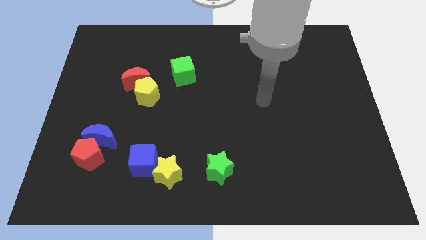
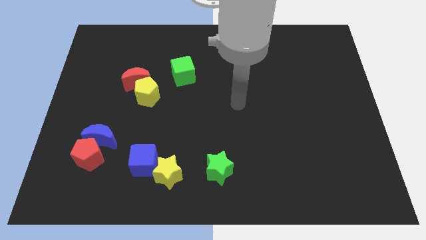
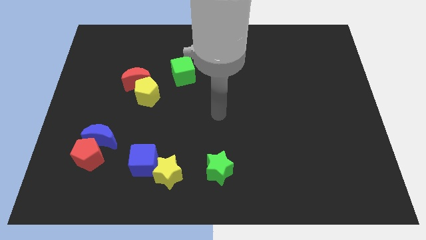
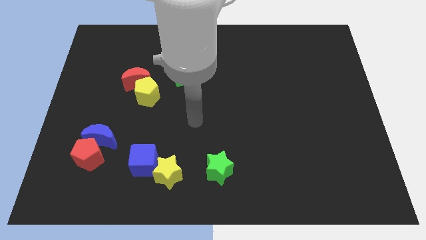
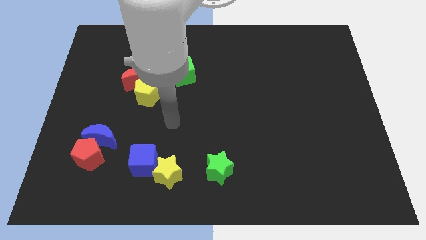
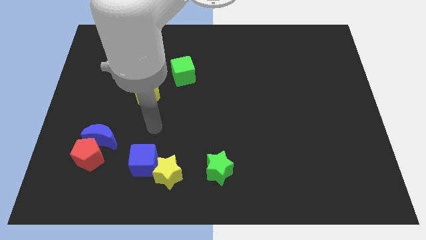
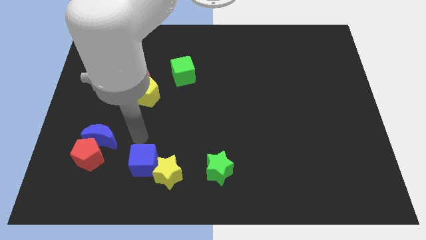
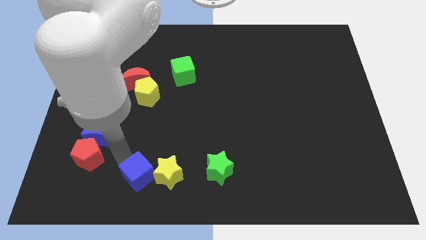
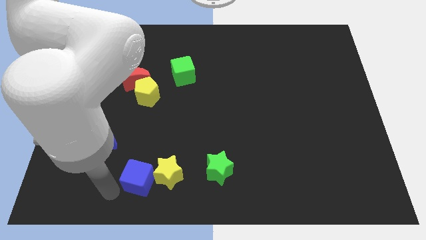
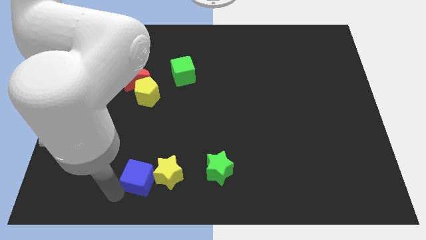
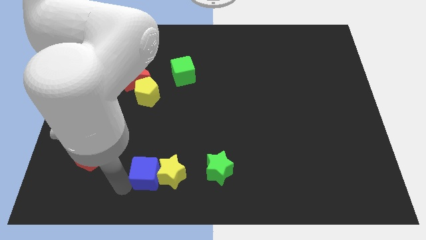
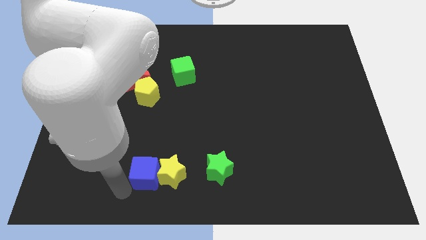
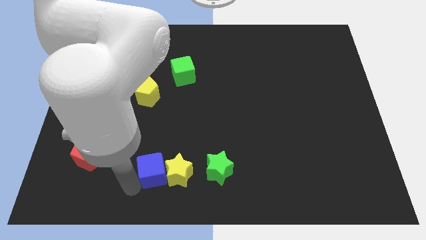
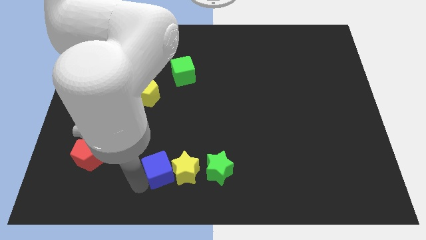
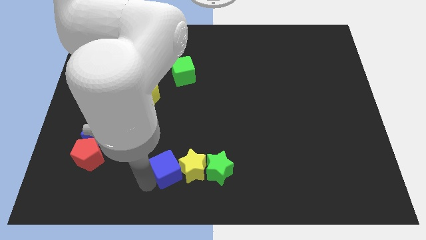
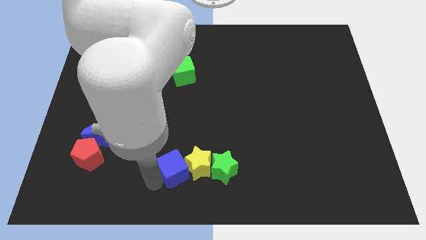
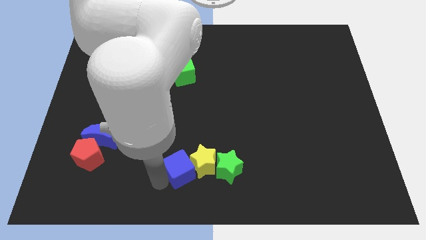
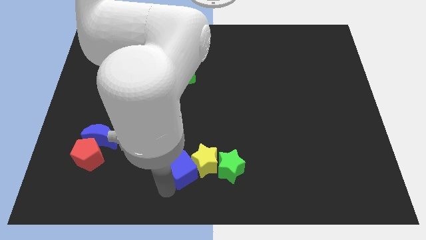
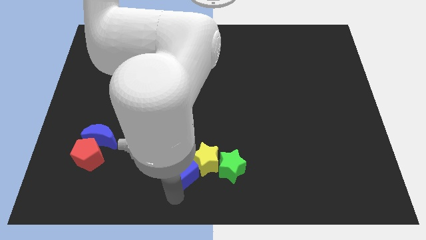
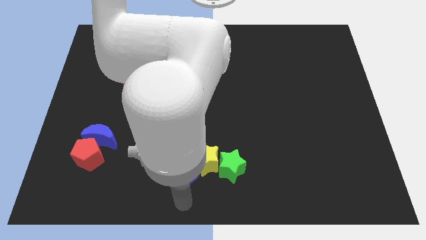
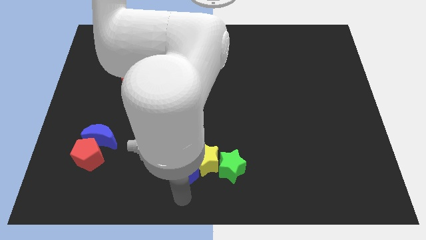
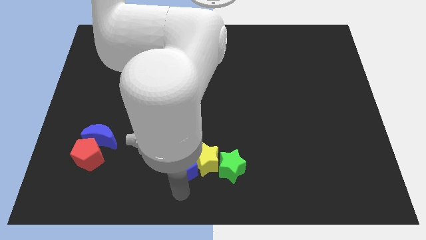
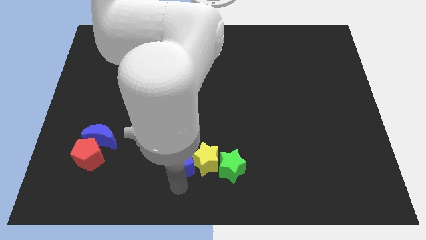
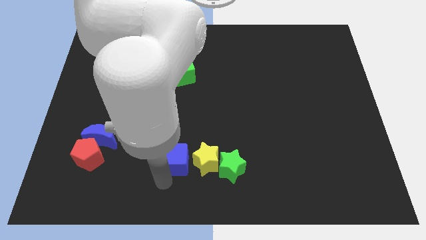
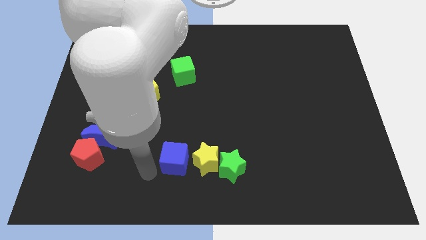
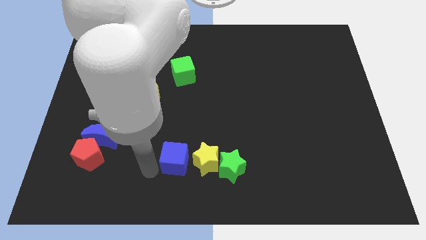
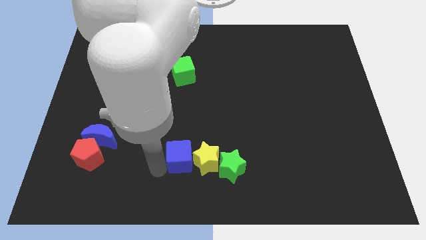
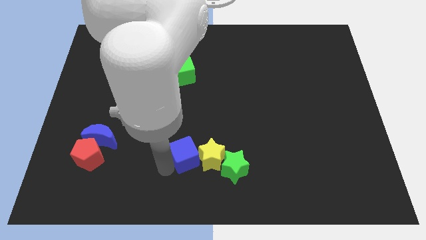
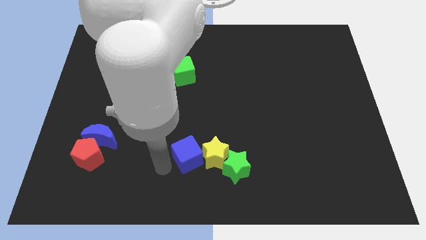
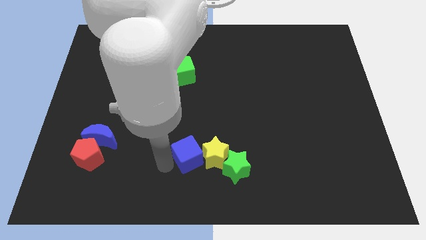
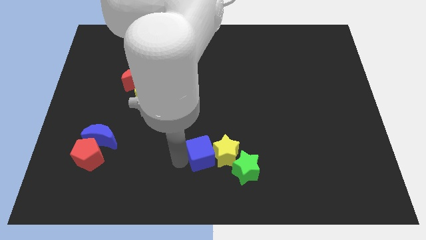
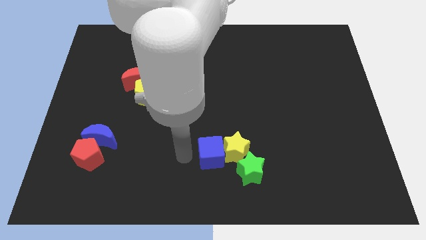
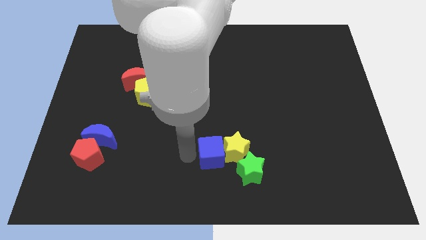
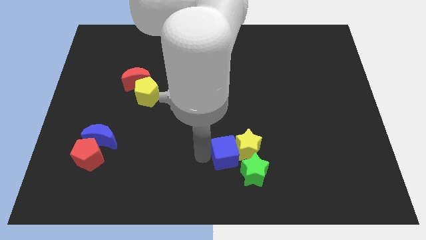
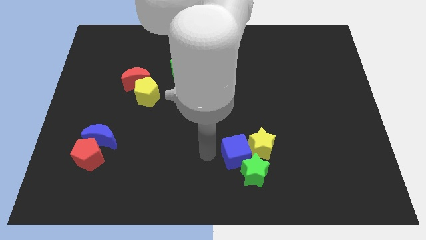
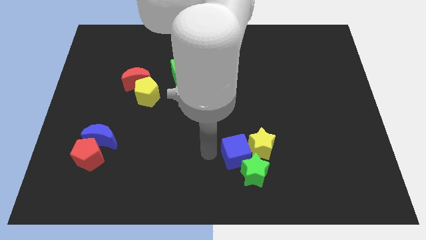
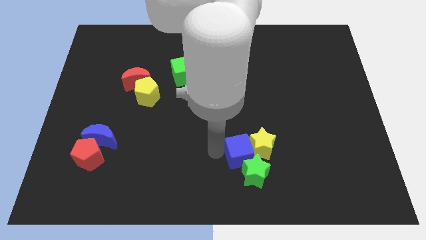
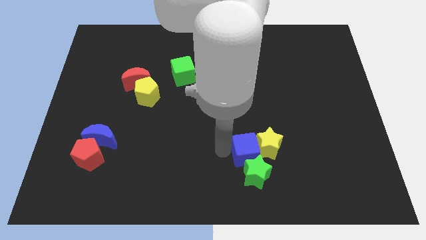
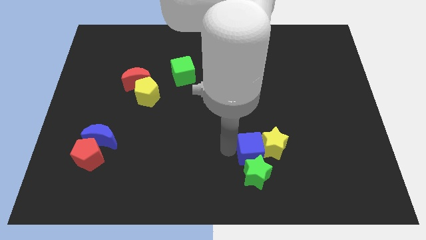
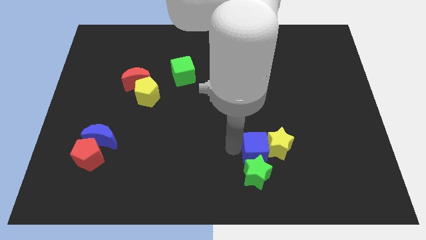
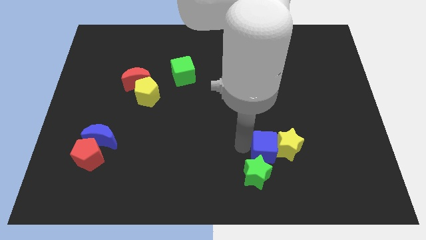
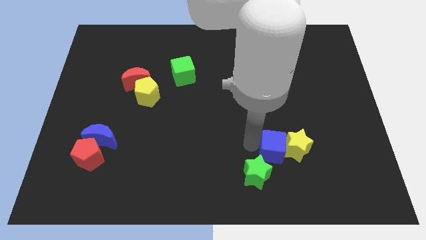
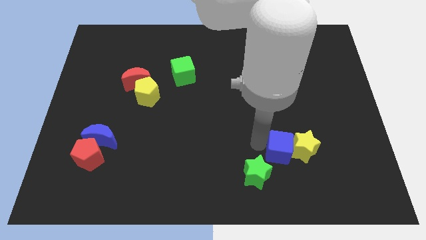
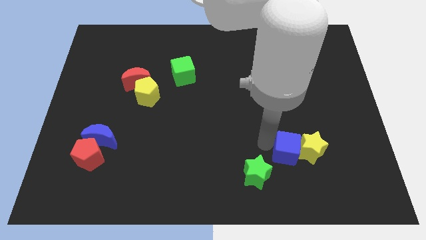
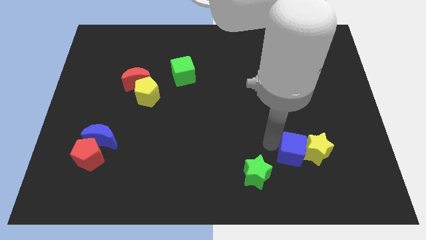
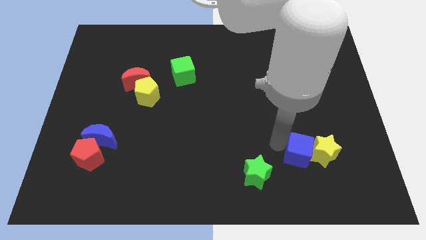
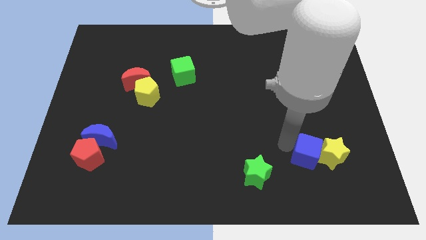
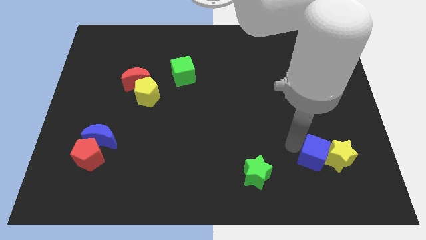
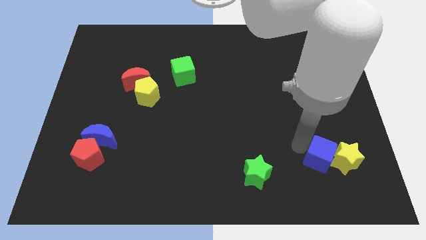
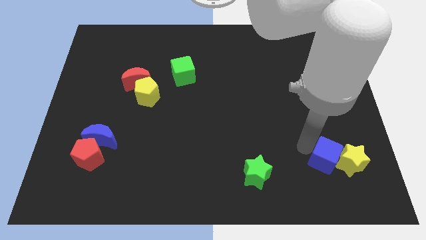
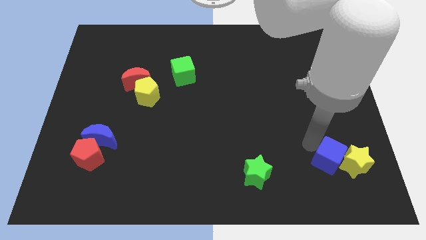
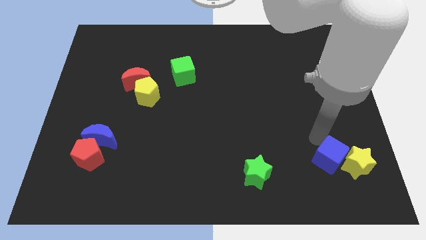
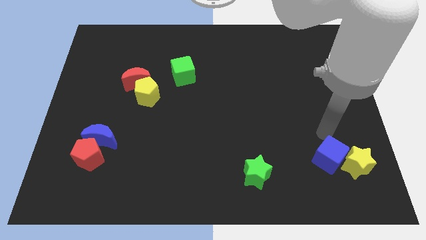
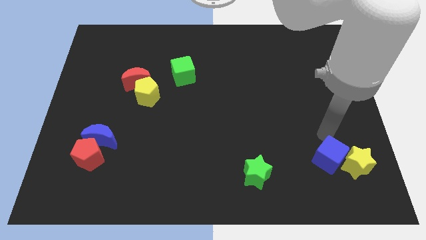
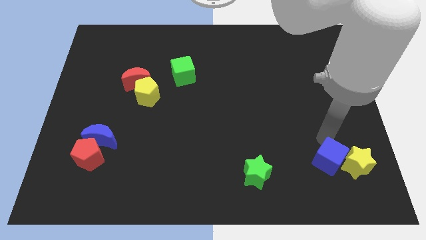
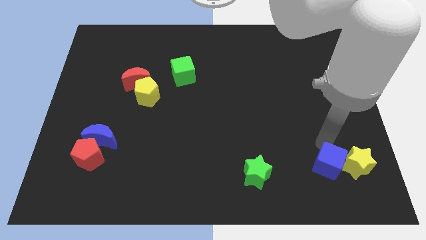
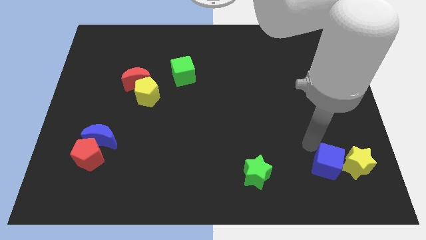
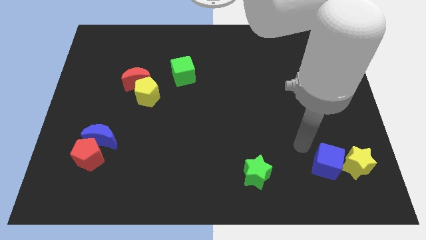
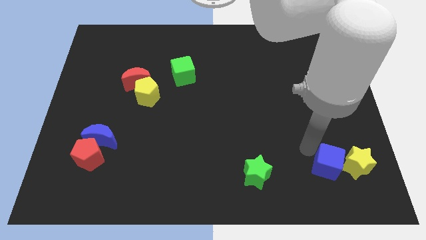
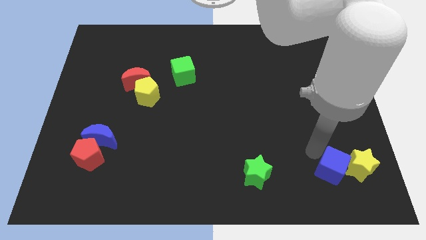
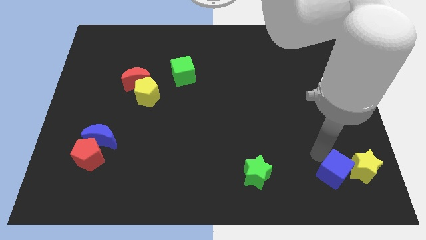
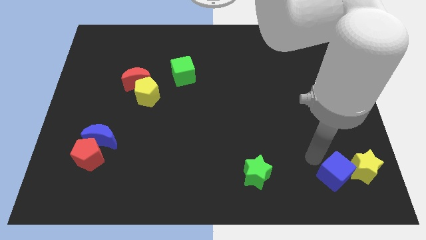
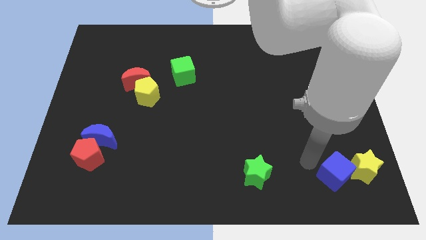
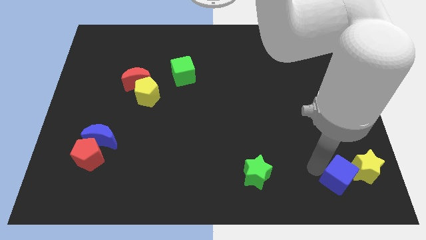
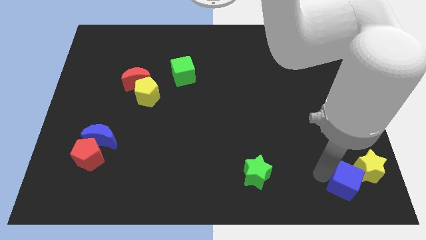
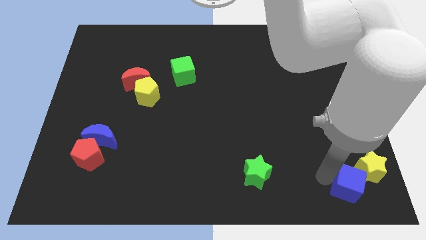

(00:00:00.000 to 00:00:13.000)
move the blue cube to the bottom right of the board
